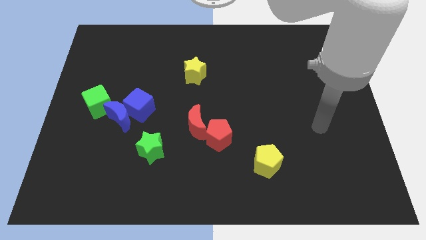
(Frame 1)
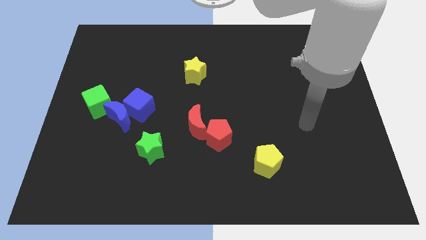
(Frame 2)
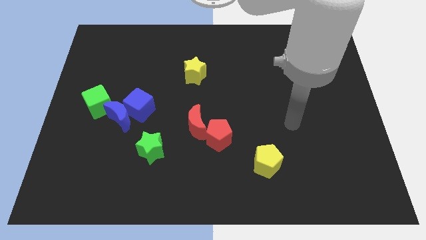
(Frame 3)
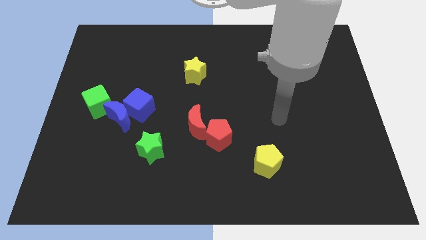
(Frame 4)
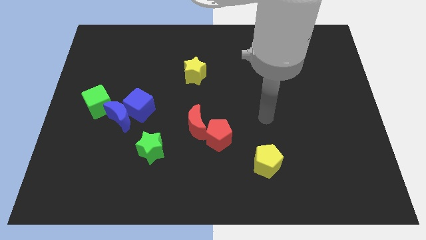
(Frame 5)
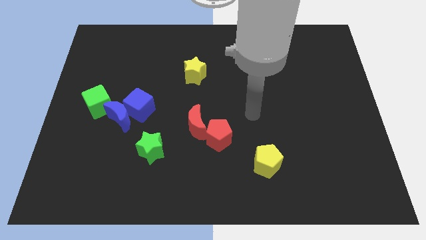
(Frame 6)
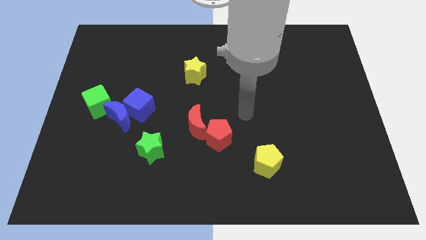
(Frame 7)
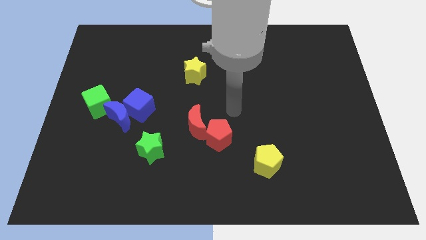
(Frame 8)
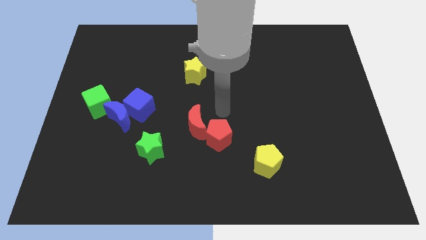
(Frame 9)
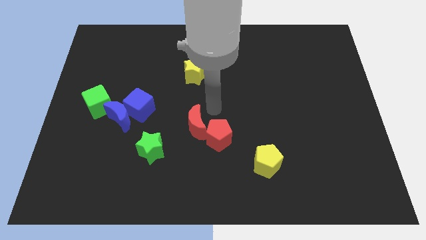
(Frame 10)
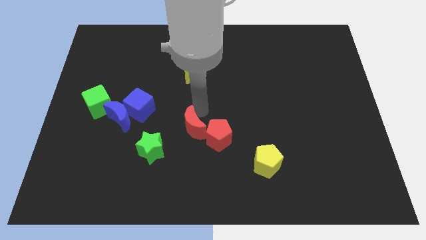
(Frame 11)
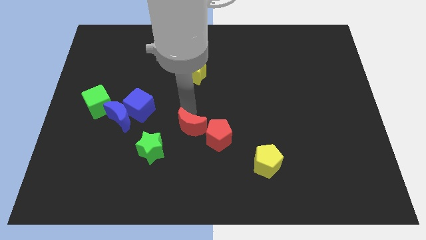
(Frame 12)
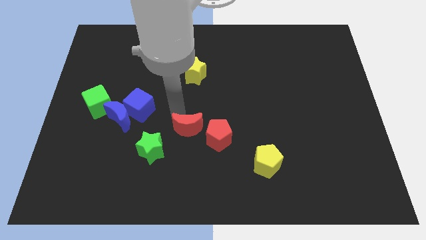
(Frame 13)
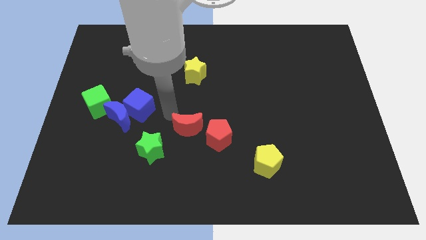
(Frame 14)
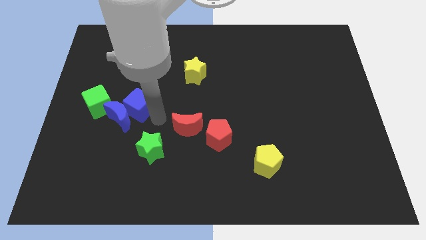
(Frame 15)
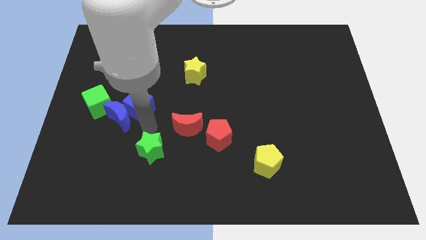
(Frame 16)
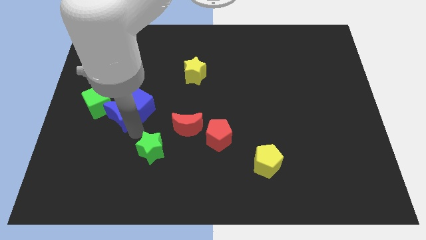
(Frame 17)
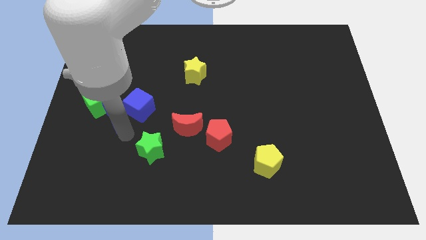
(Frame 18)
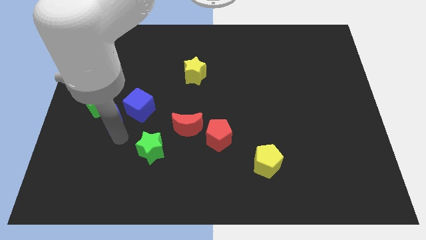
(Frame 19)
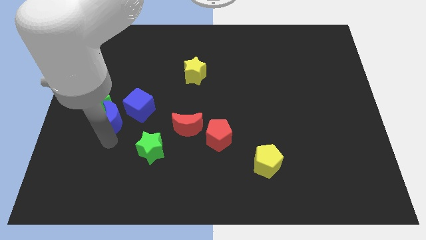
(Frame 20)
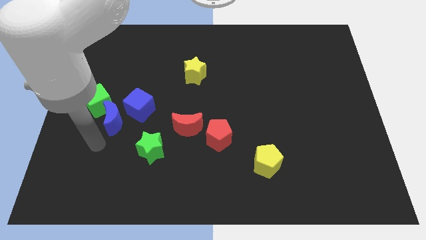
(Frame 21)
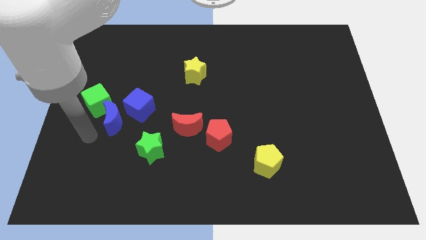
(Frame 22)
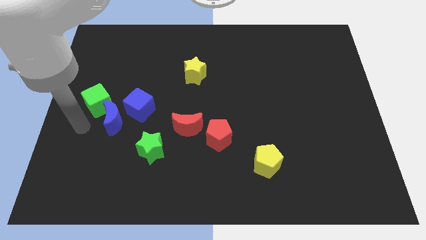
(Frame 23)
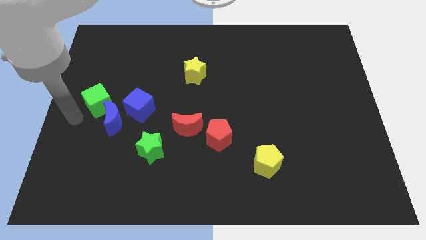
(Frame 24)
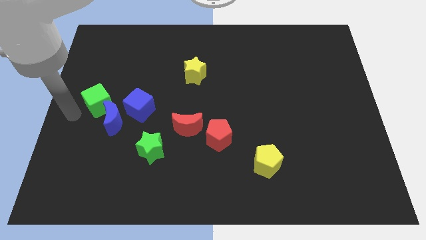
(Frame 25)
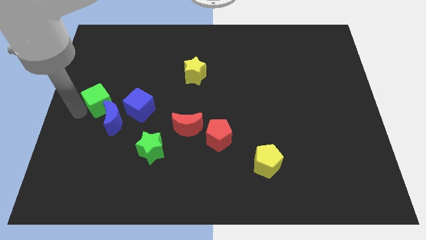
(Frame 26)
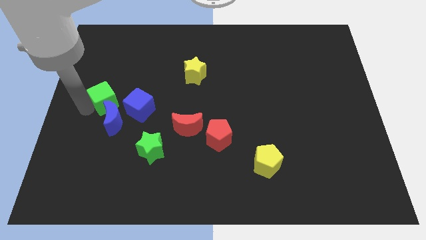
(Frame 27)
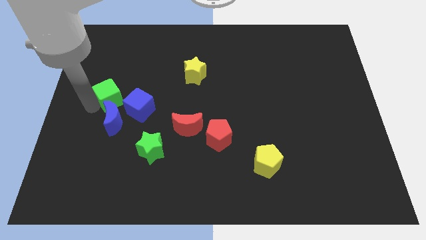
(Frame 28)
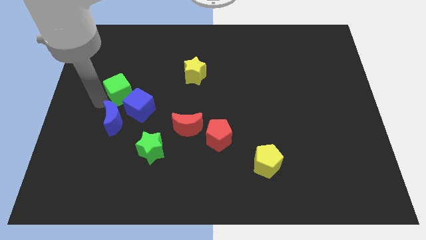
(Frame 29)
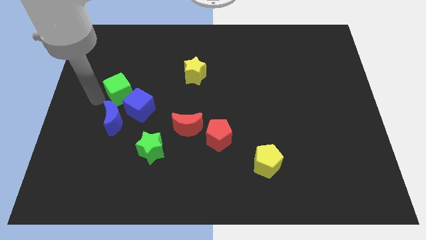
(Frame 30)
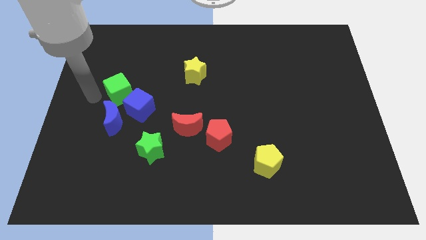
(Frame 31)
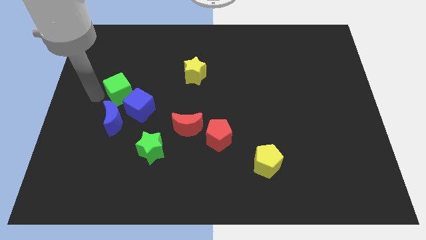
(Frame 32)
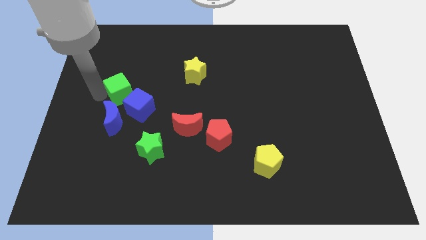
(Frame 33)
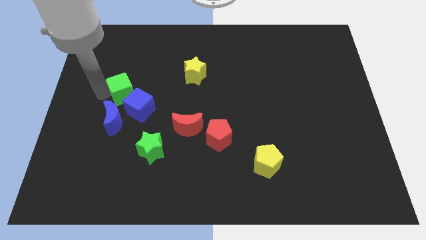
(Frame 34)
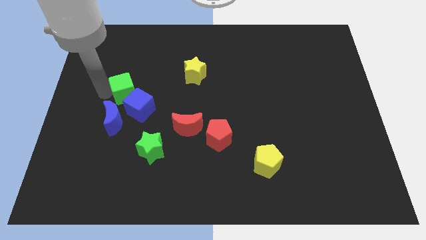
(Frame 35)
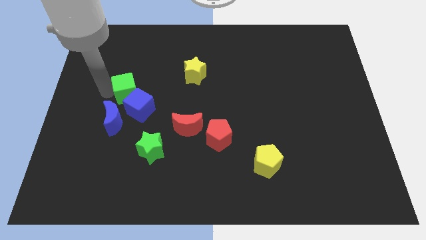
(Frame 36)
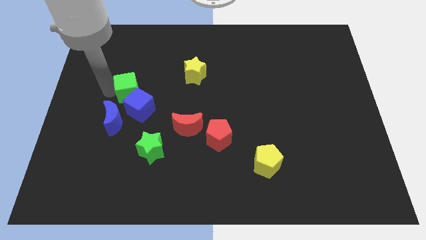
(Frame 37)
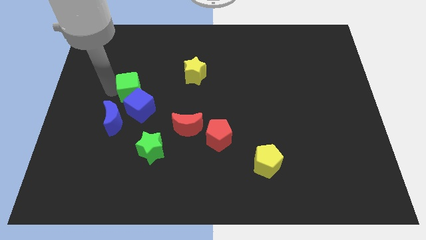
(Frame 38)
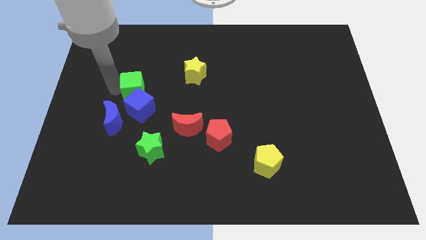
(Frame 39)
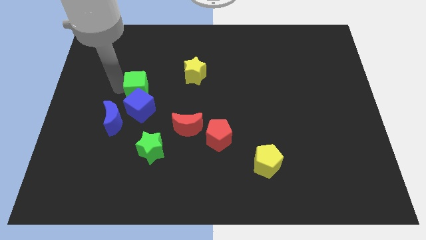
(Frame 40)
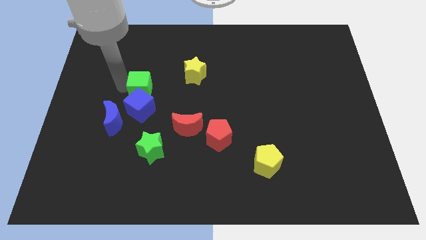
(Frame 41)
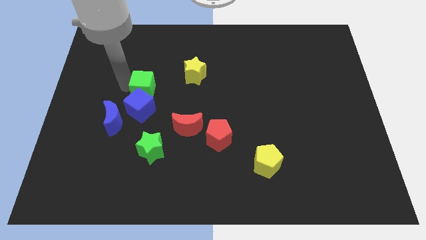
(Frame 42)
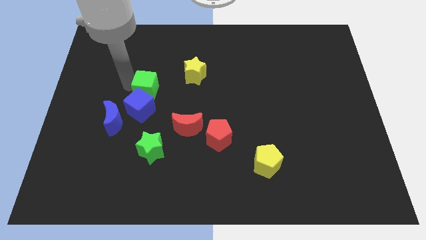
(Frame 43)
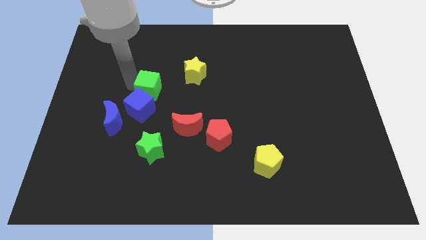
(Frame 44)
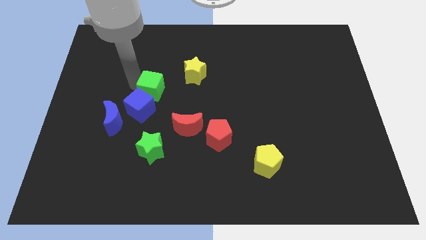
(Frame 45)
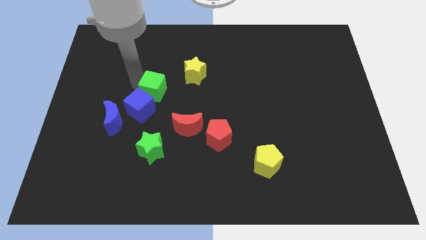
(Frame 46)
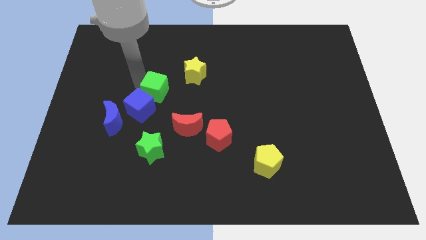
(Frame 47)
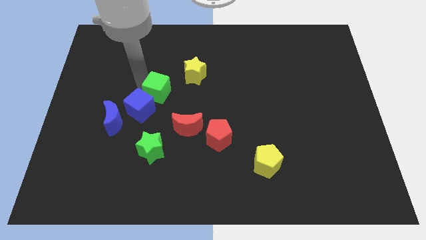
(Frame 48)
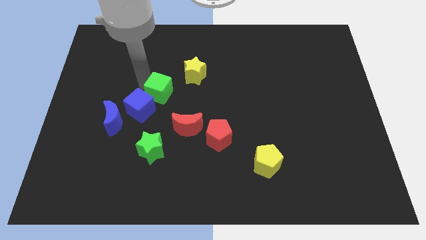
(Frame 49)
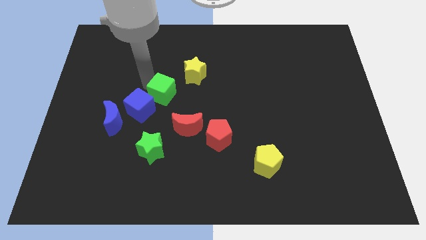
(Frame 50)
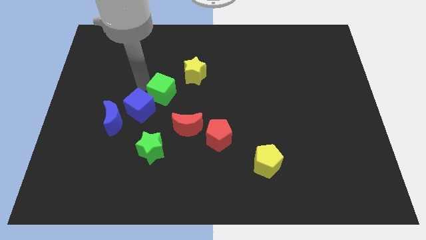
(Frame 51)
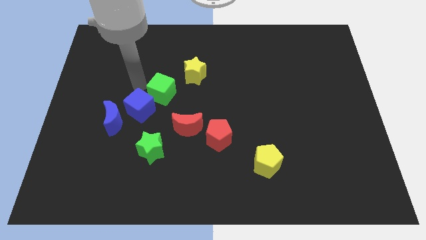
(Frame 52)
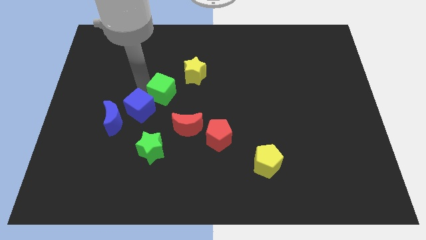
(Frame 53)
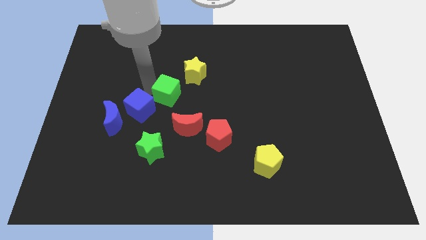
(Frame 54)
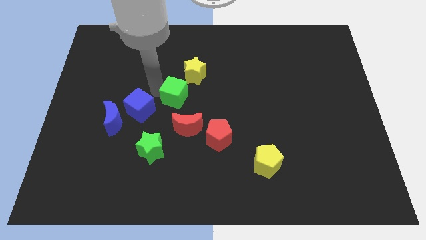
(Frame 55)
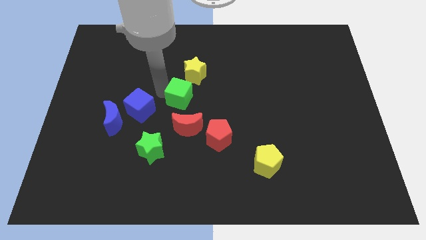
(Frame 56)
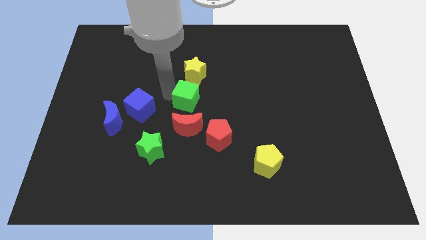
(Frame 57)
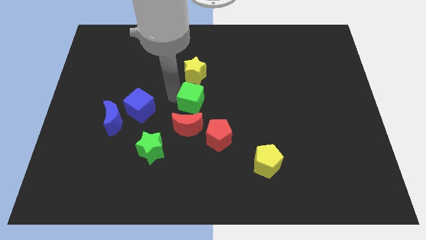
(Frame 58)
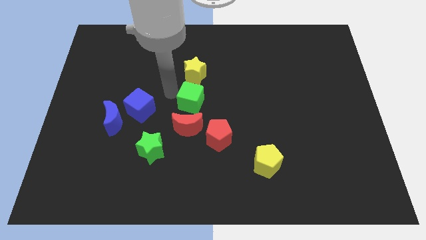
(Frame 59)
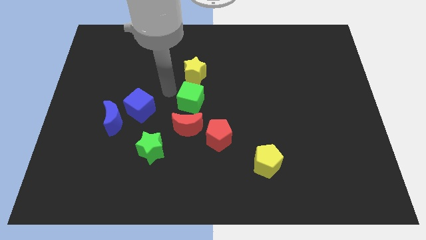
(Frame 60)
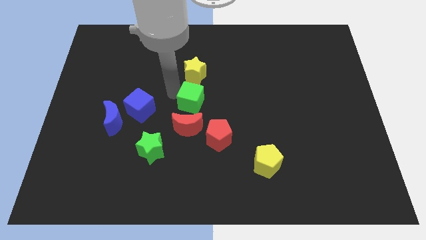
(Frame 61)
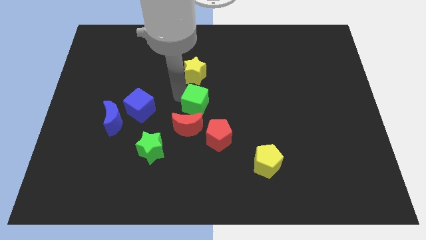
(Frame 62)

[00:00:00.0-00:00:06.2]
put the green cube to the top right of the red moon
